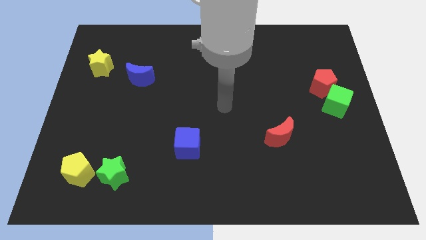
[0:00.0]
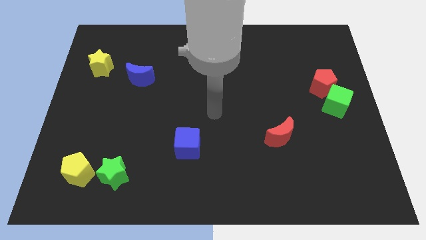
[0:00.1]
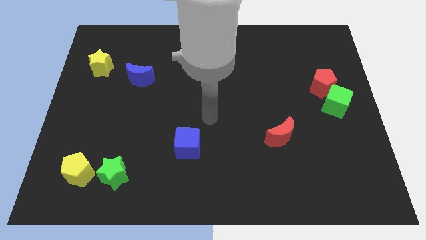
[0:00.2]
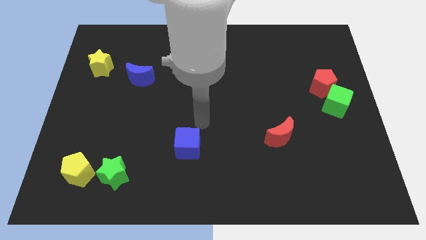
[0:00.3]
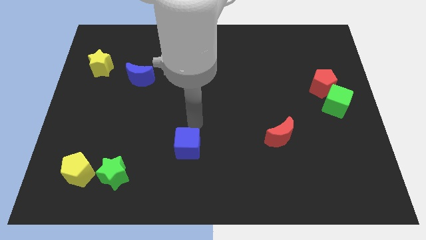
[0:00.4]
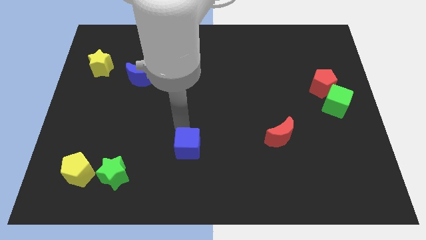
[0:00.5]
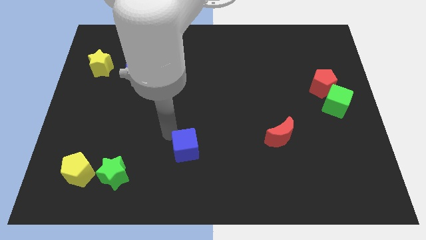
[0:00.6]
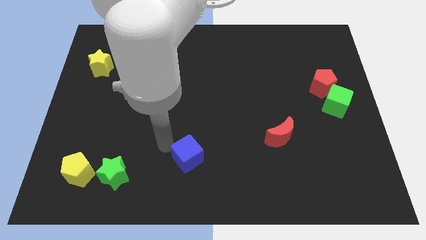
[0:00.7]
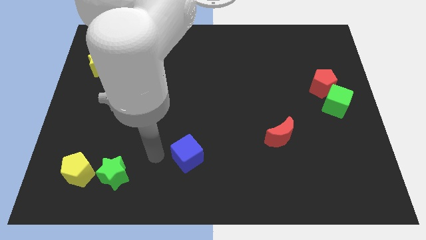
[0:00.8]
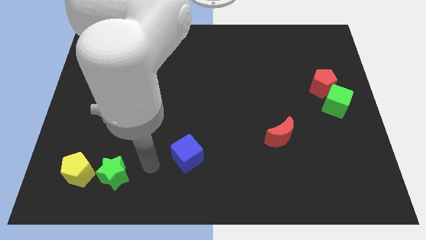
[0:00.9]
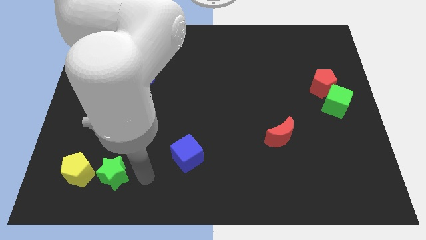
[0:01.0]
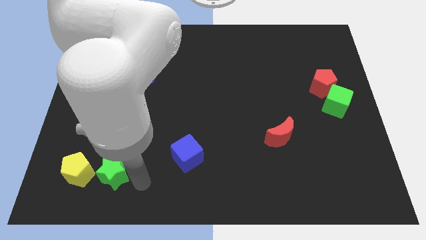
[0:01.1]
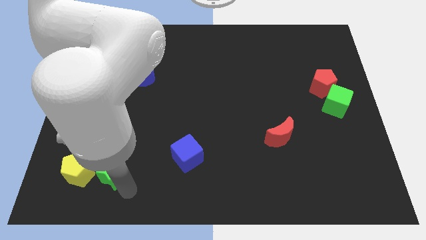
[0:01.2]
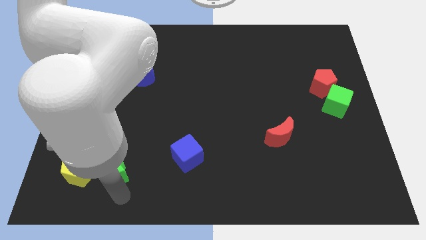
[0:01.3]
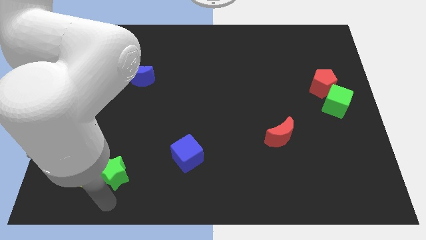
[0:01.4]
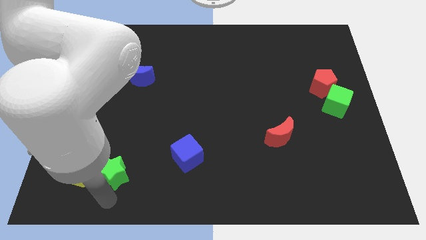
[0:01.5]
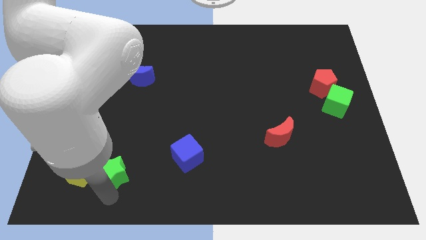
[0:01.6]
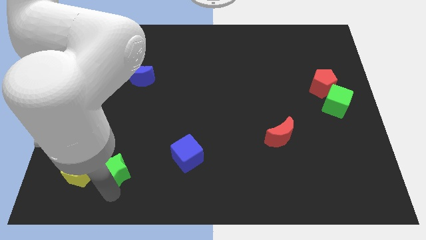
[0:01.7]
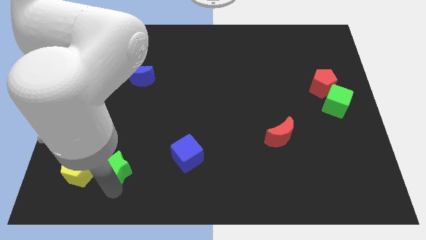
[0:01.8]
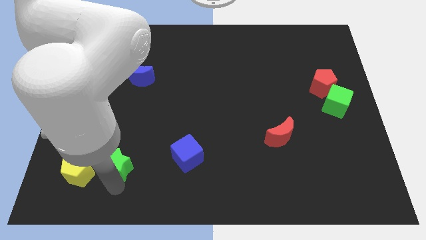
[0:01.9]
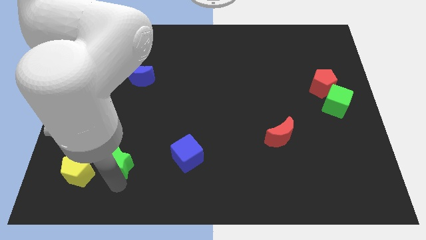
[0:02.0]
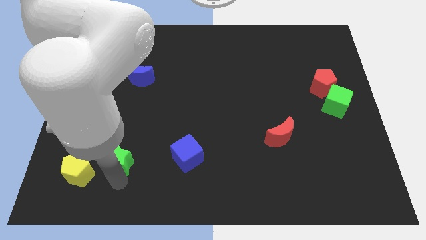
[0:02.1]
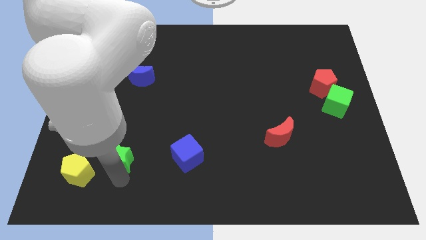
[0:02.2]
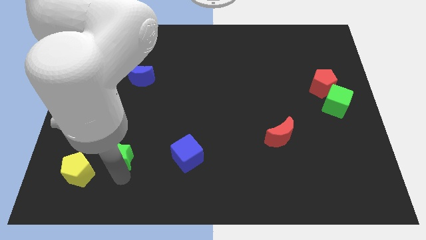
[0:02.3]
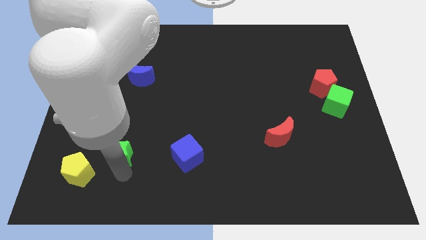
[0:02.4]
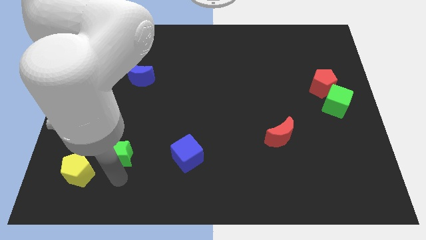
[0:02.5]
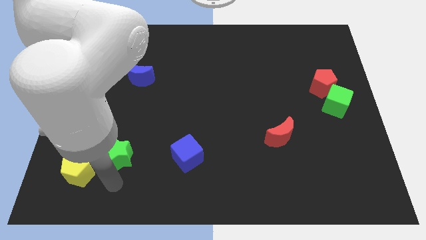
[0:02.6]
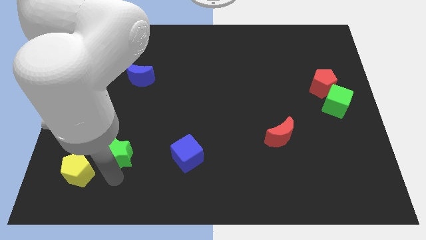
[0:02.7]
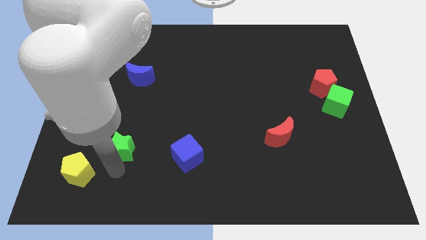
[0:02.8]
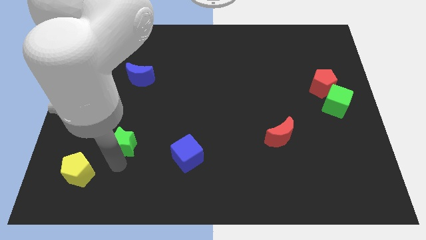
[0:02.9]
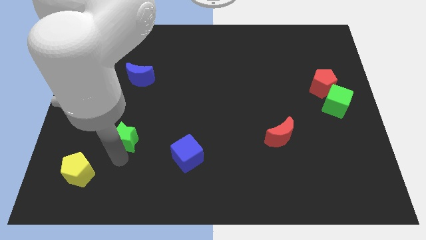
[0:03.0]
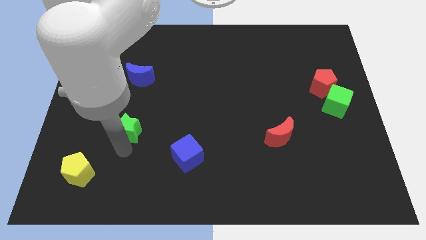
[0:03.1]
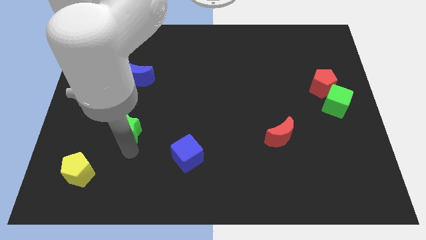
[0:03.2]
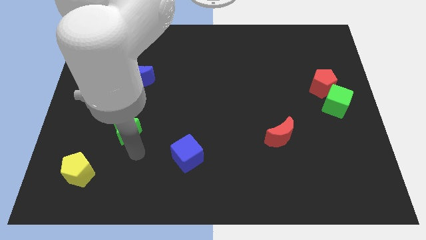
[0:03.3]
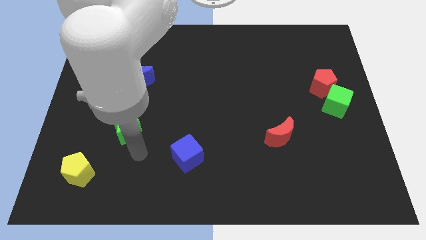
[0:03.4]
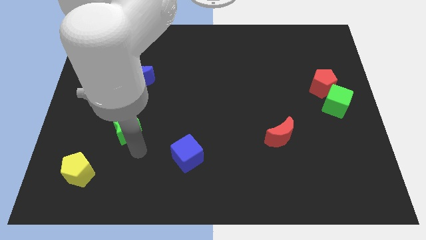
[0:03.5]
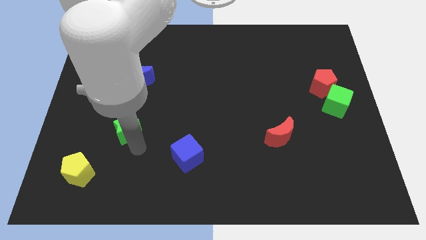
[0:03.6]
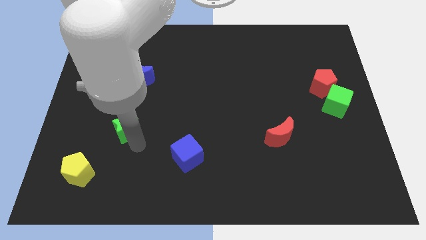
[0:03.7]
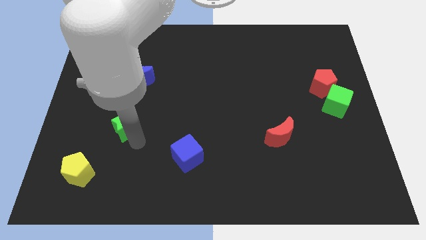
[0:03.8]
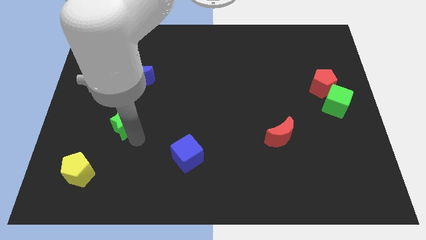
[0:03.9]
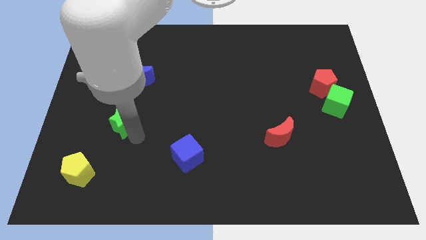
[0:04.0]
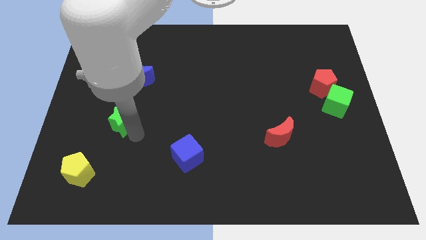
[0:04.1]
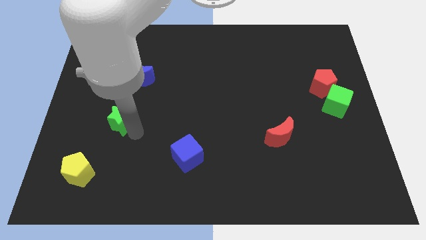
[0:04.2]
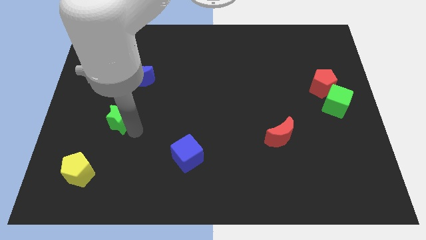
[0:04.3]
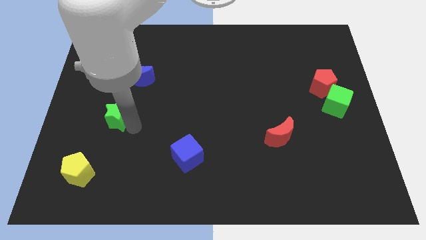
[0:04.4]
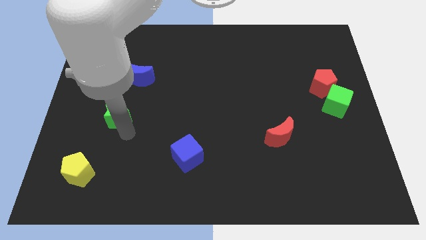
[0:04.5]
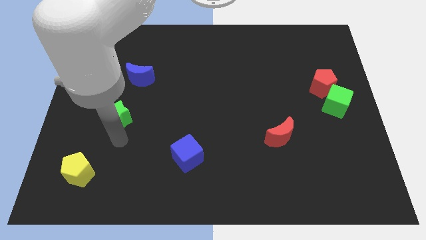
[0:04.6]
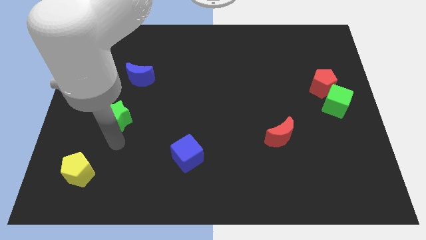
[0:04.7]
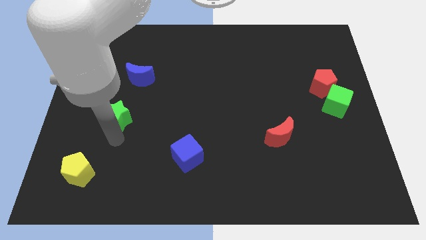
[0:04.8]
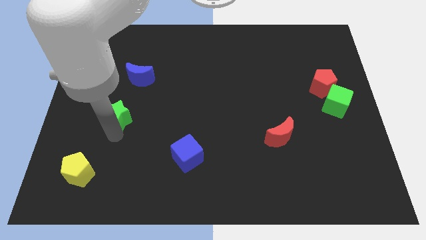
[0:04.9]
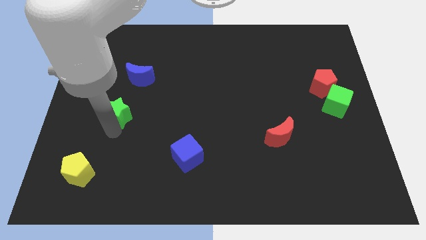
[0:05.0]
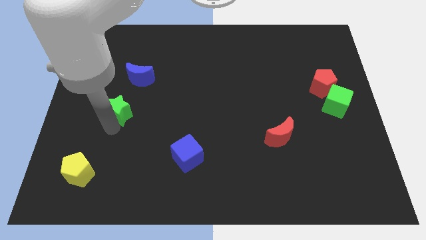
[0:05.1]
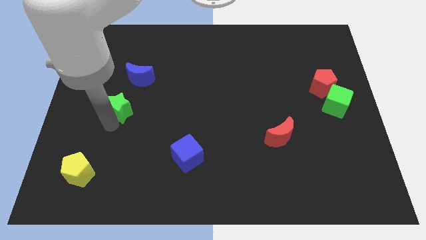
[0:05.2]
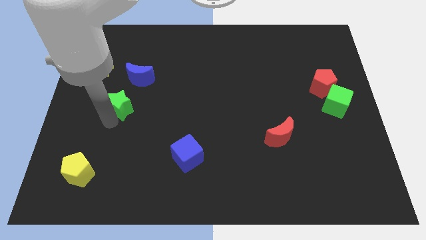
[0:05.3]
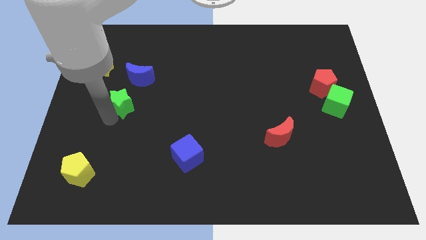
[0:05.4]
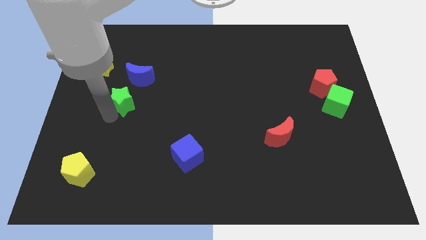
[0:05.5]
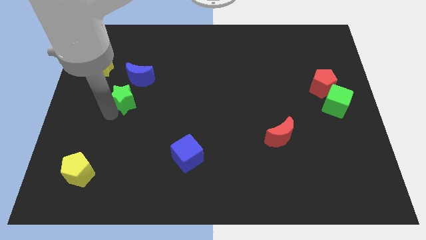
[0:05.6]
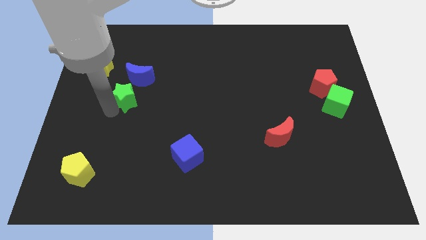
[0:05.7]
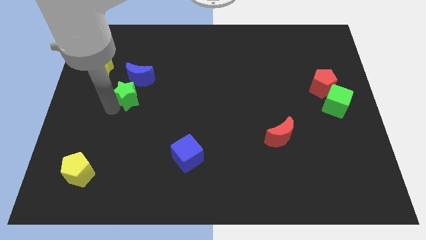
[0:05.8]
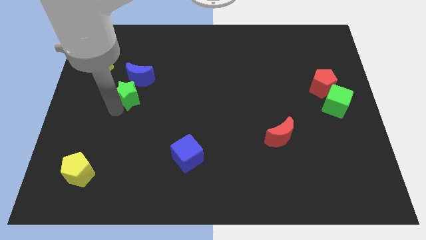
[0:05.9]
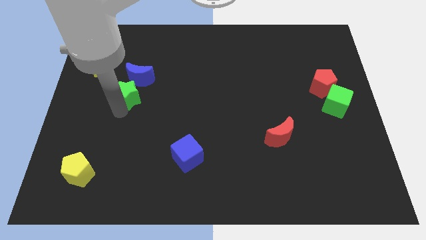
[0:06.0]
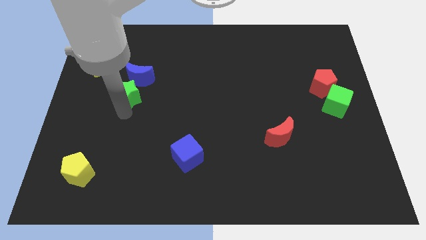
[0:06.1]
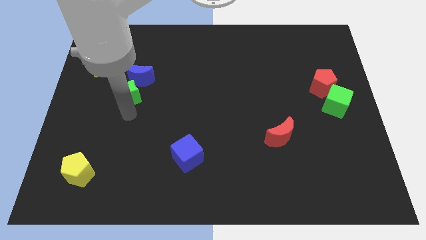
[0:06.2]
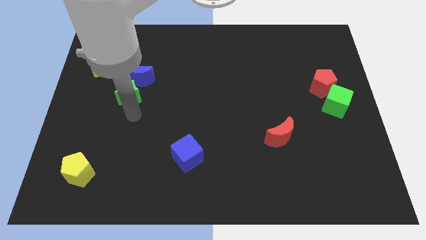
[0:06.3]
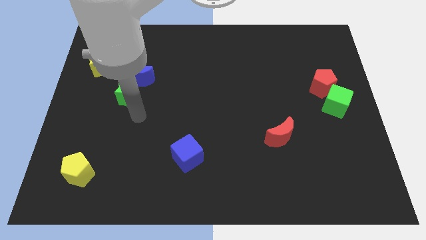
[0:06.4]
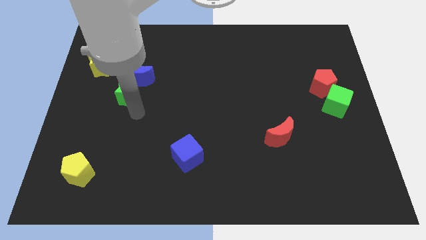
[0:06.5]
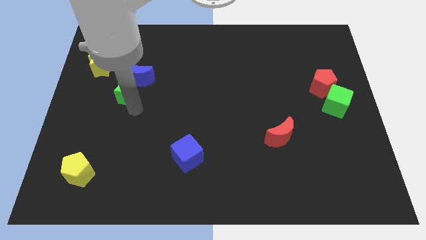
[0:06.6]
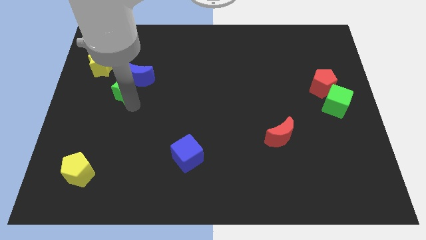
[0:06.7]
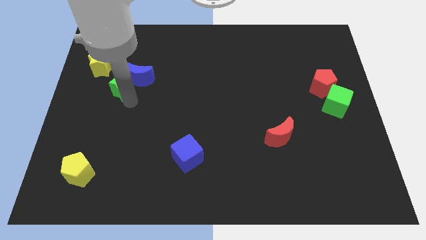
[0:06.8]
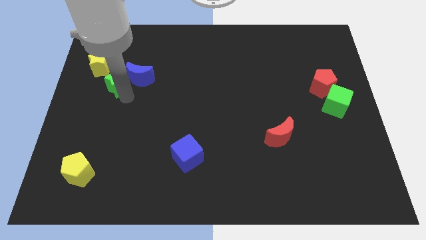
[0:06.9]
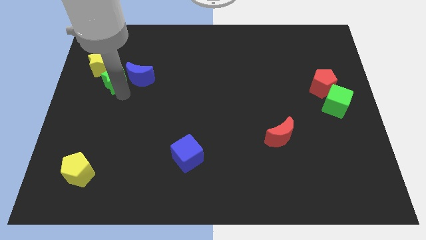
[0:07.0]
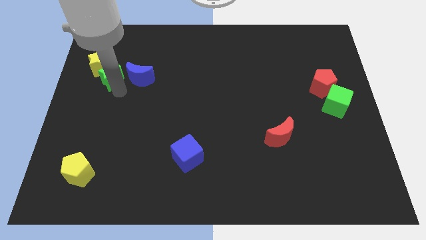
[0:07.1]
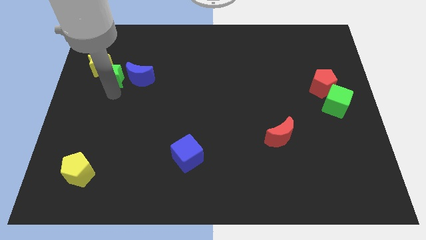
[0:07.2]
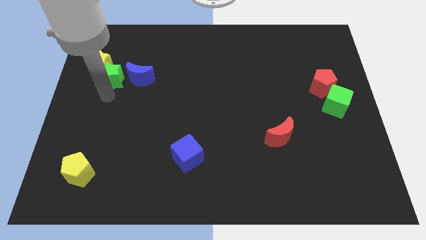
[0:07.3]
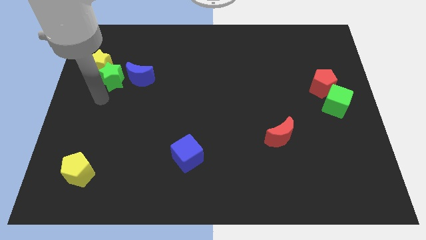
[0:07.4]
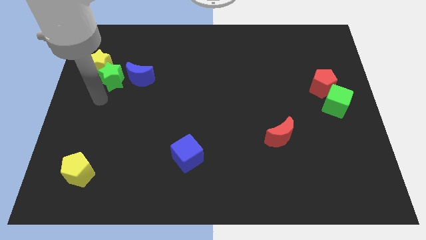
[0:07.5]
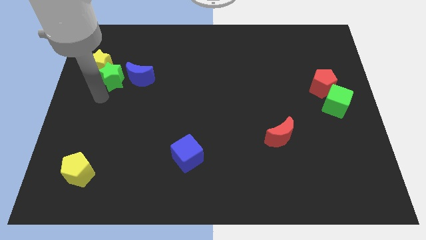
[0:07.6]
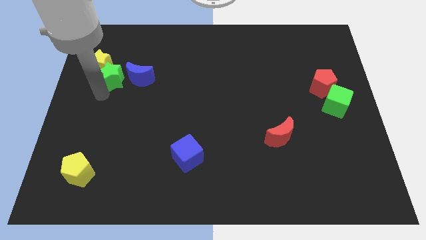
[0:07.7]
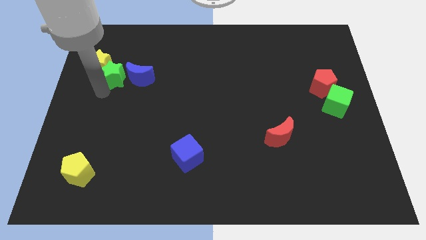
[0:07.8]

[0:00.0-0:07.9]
put the green star to the top left of the blue moon
